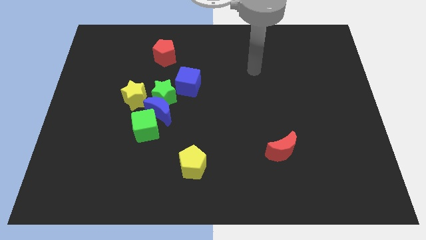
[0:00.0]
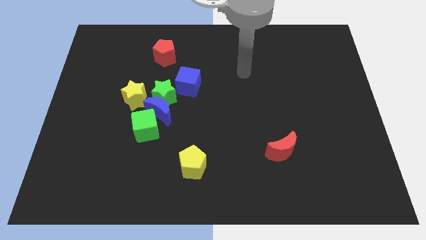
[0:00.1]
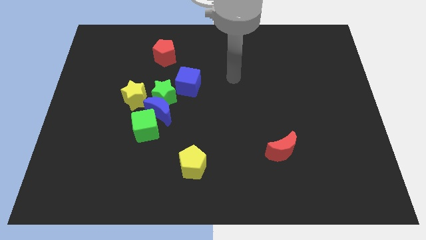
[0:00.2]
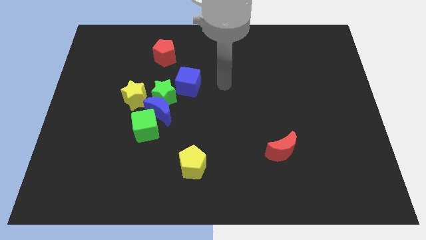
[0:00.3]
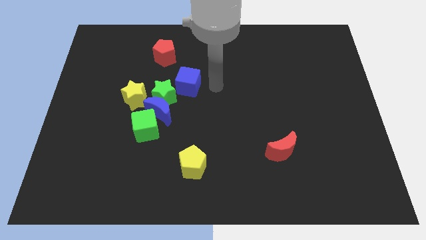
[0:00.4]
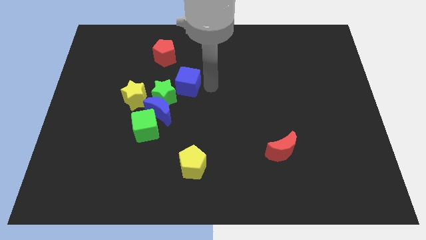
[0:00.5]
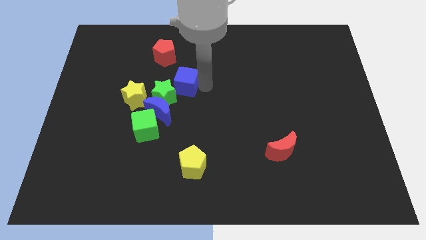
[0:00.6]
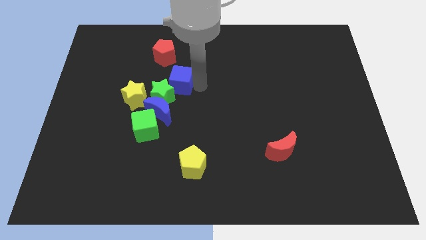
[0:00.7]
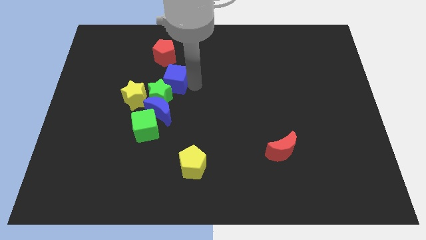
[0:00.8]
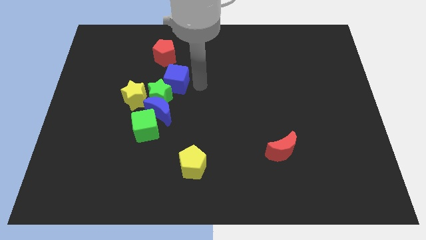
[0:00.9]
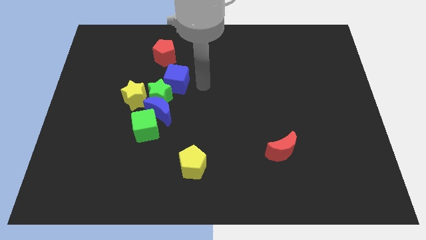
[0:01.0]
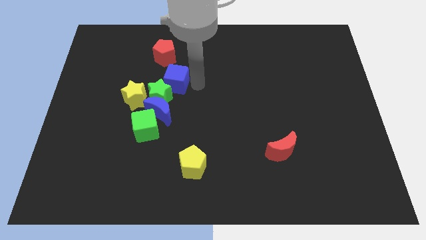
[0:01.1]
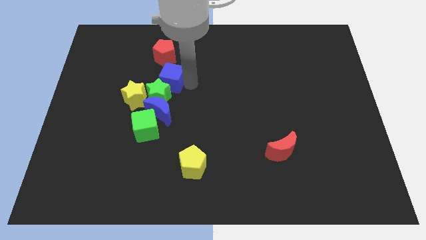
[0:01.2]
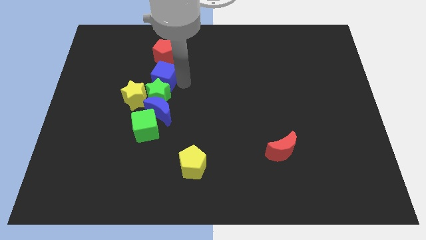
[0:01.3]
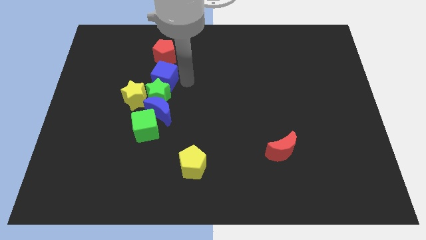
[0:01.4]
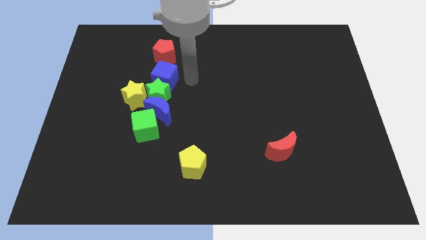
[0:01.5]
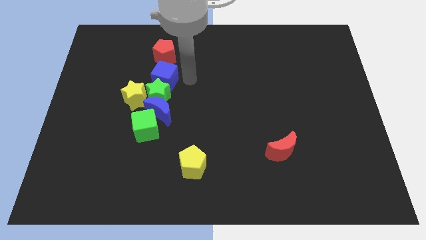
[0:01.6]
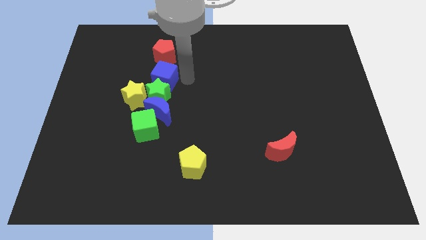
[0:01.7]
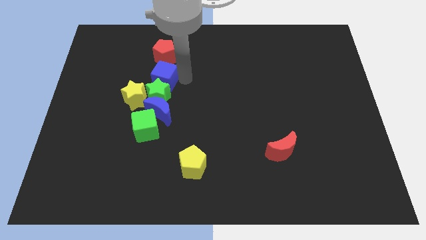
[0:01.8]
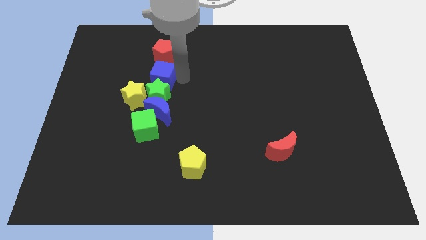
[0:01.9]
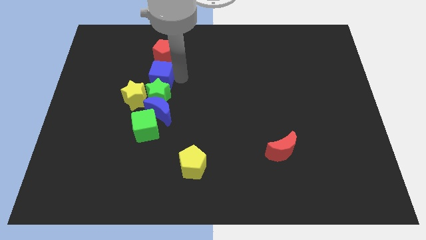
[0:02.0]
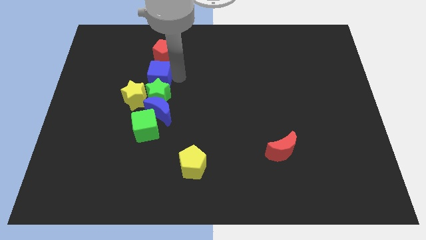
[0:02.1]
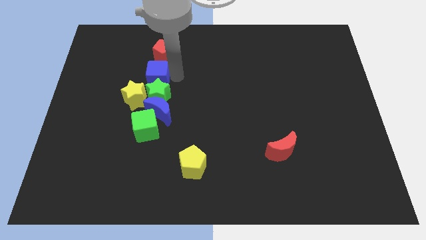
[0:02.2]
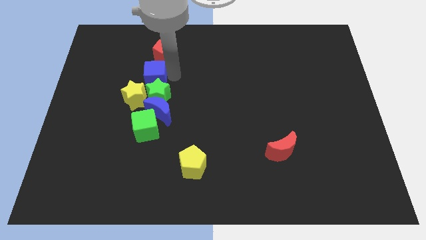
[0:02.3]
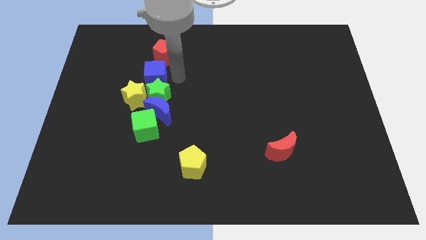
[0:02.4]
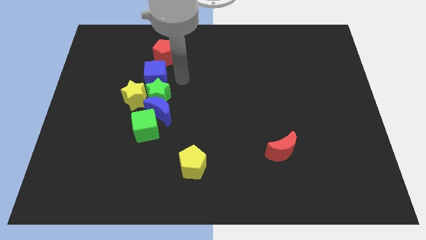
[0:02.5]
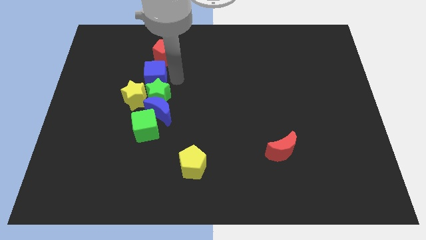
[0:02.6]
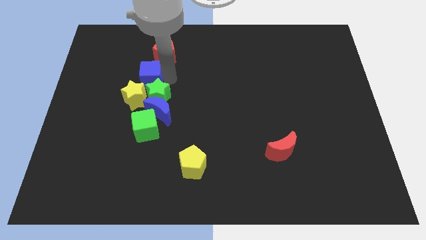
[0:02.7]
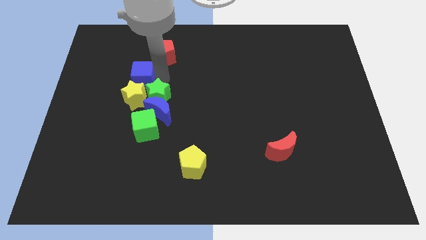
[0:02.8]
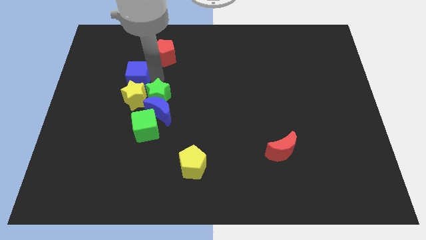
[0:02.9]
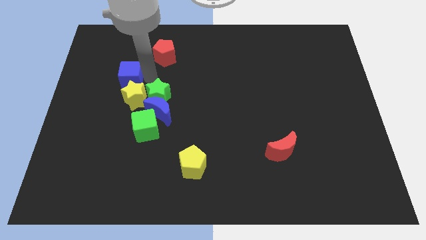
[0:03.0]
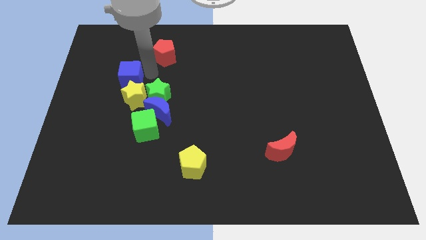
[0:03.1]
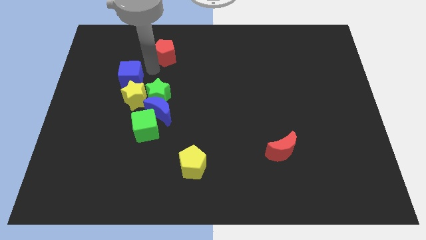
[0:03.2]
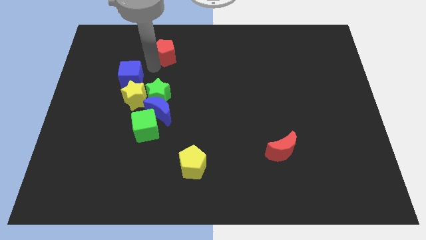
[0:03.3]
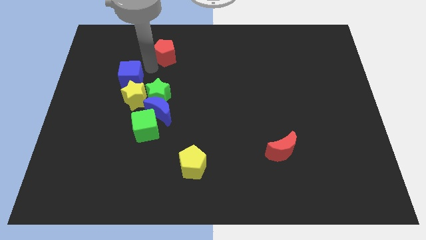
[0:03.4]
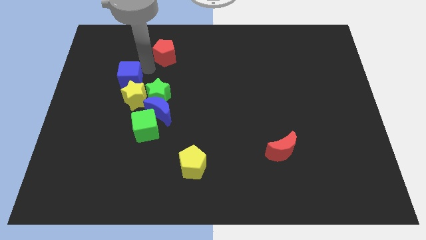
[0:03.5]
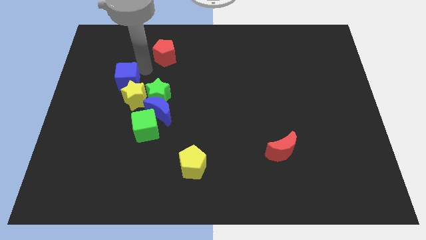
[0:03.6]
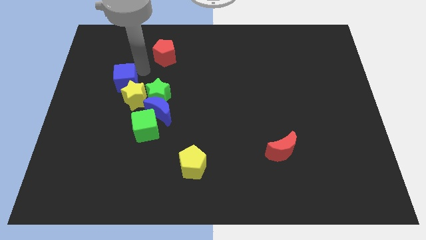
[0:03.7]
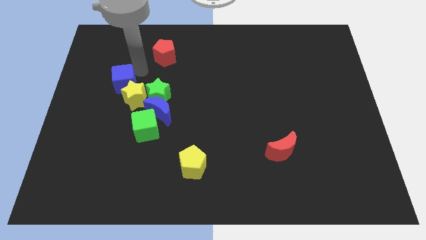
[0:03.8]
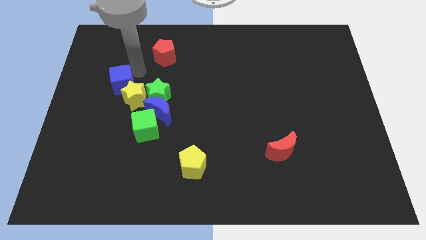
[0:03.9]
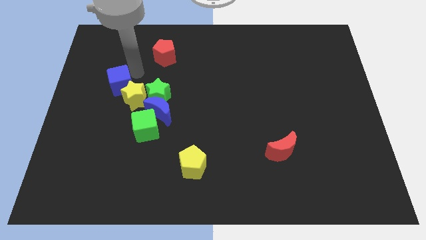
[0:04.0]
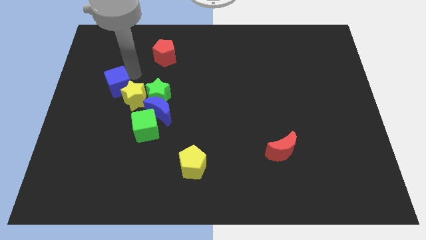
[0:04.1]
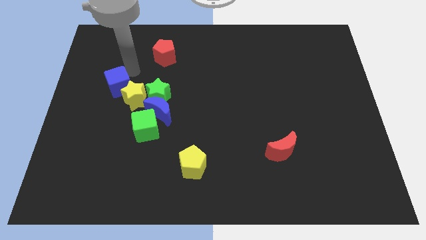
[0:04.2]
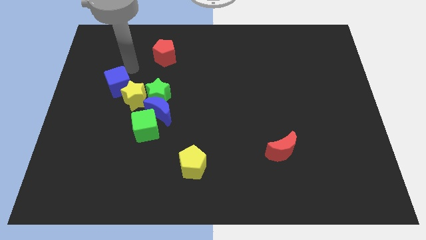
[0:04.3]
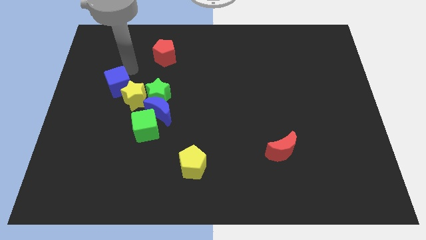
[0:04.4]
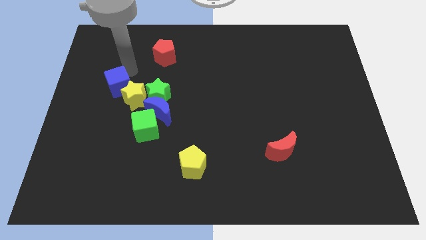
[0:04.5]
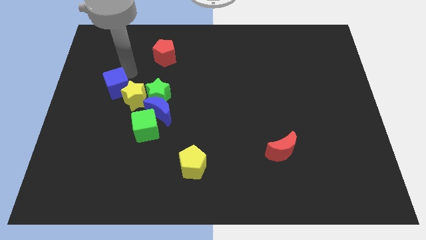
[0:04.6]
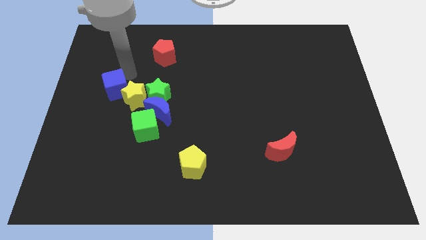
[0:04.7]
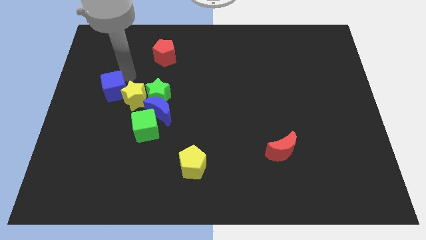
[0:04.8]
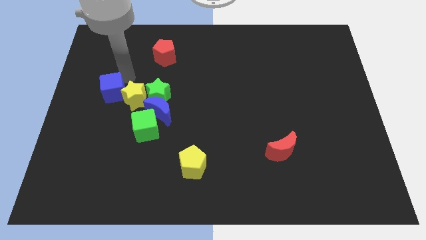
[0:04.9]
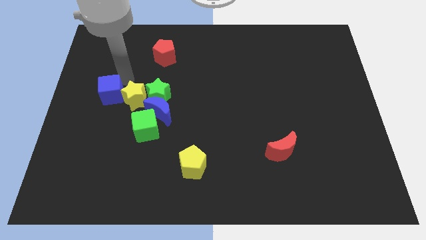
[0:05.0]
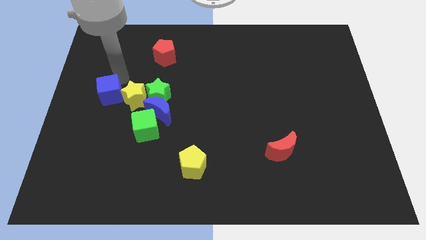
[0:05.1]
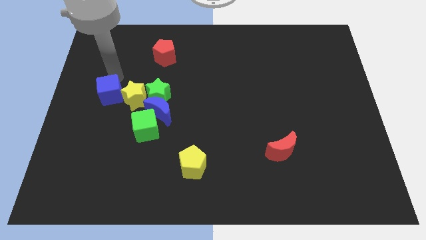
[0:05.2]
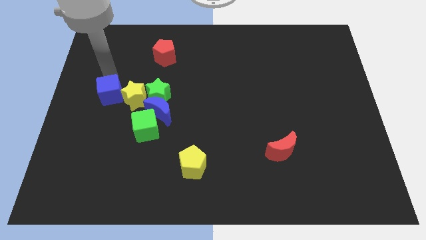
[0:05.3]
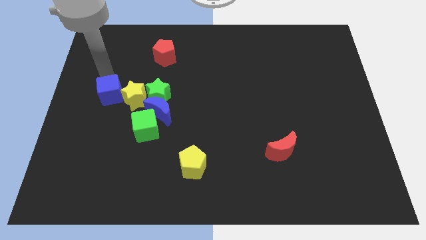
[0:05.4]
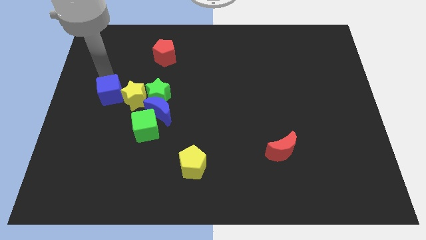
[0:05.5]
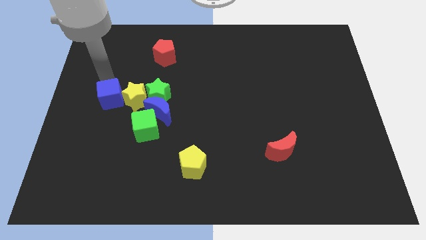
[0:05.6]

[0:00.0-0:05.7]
move the blue cube to the left side of the blue moon

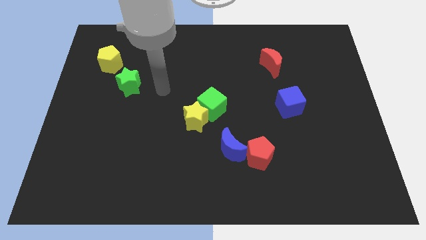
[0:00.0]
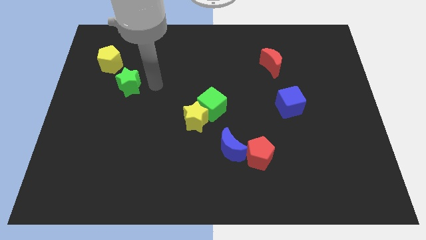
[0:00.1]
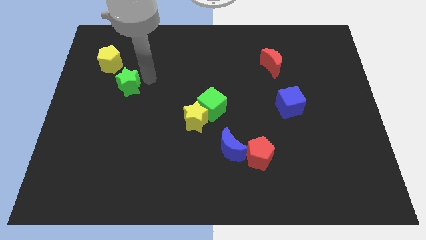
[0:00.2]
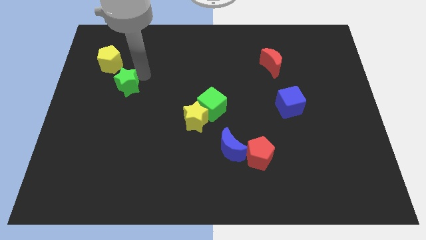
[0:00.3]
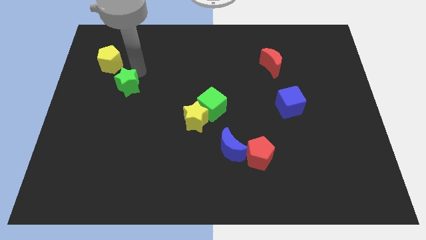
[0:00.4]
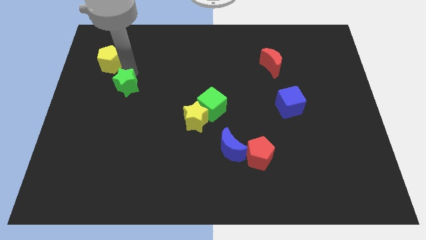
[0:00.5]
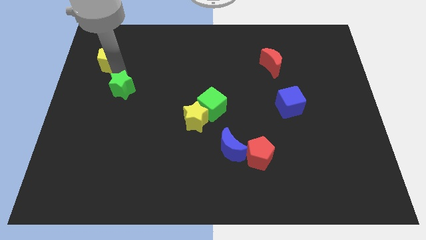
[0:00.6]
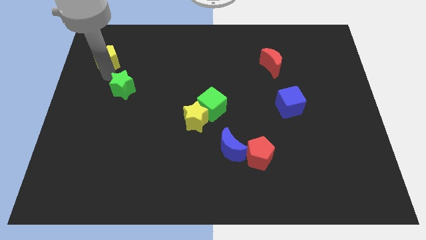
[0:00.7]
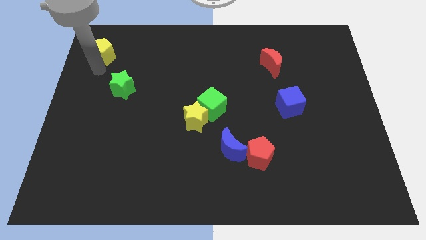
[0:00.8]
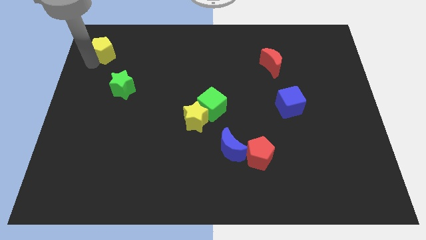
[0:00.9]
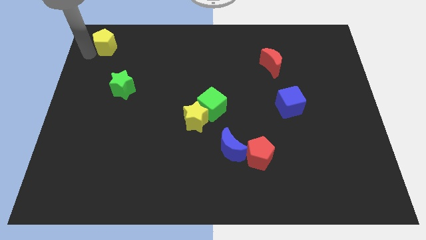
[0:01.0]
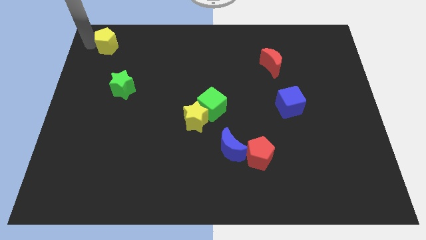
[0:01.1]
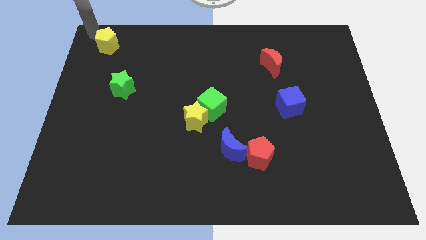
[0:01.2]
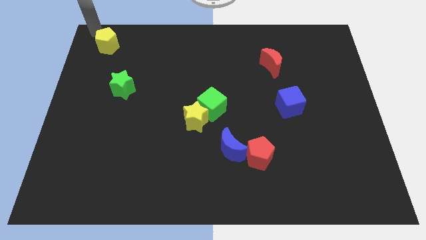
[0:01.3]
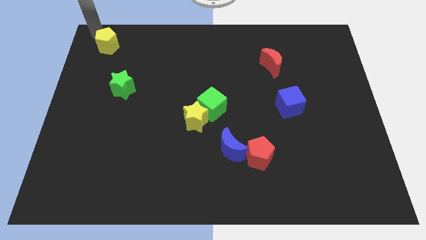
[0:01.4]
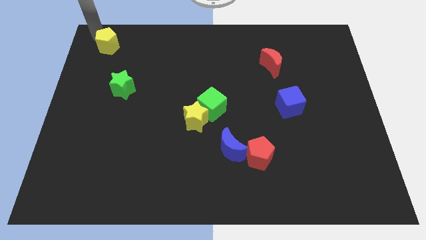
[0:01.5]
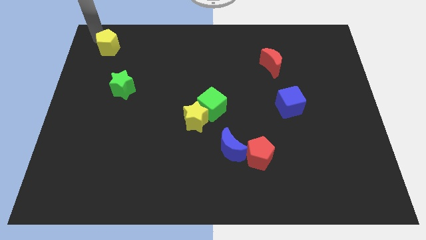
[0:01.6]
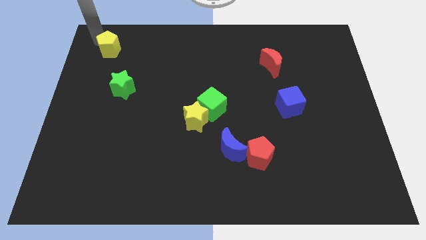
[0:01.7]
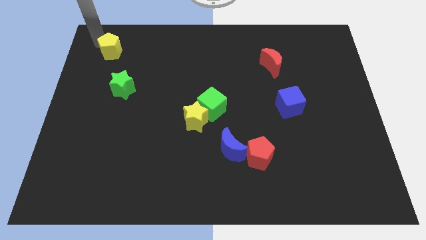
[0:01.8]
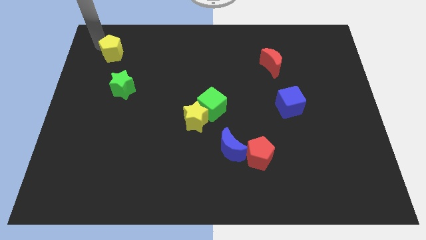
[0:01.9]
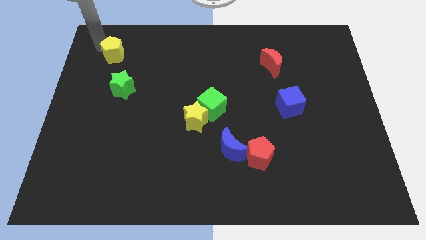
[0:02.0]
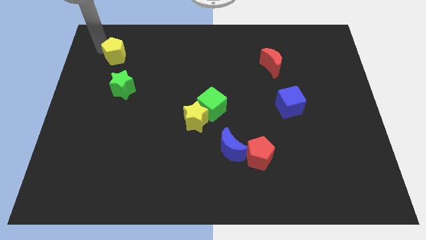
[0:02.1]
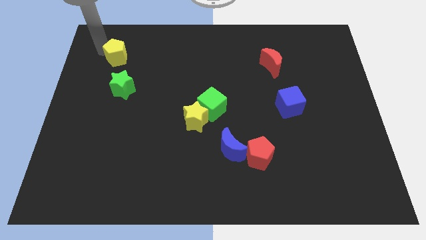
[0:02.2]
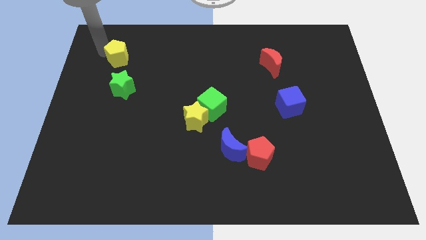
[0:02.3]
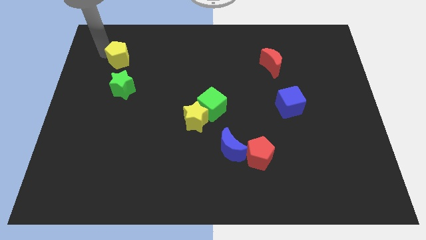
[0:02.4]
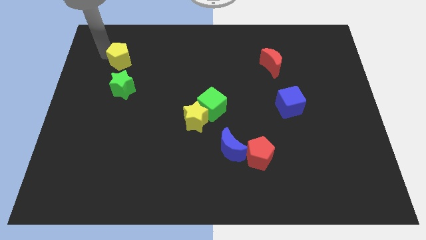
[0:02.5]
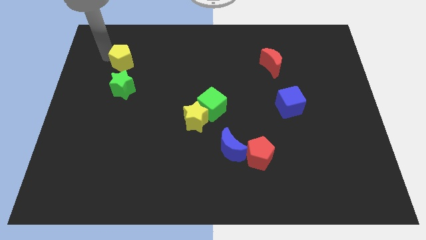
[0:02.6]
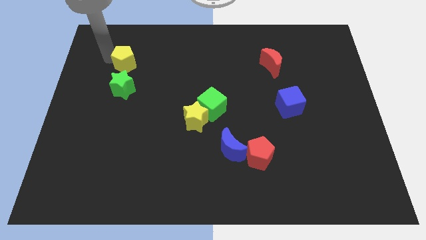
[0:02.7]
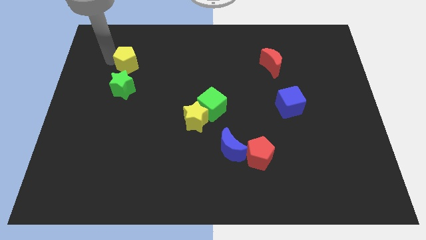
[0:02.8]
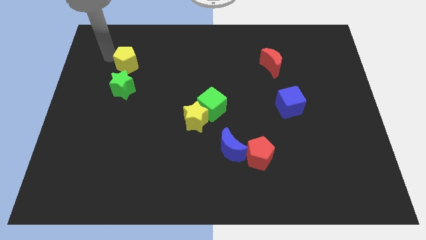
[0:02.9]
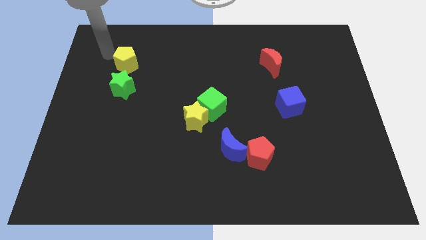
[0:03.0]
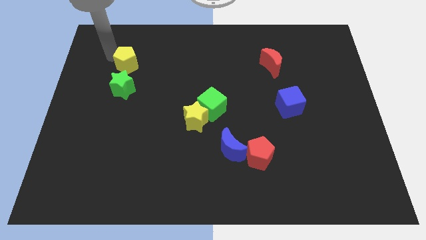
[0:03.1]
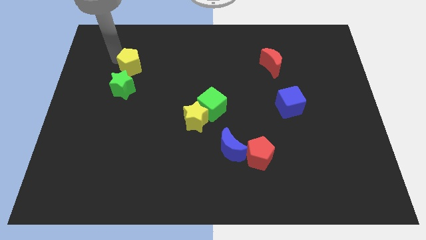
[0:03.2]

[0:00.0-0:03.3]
move the yellow pentagon to the top right of the green star
